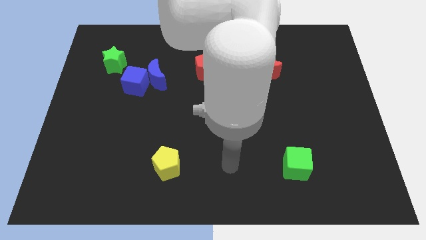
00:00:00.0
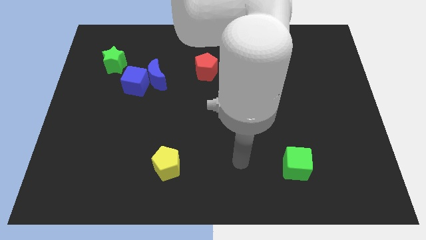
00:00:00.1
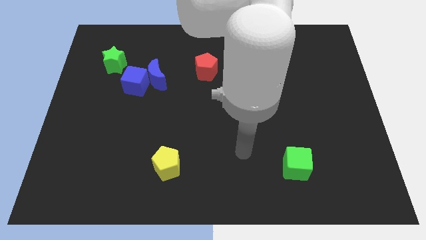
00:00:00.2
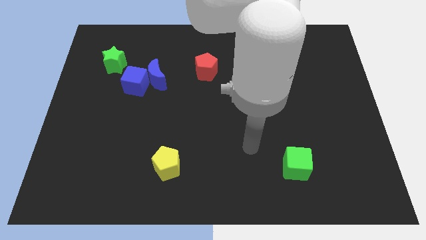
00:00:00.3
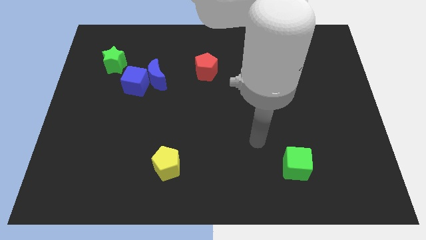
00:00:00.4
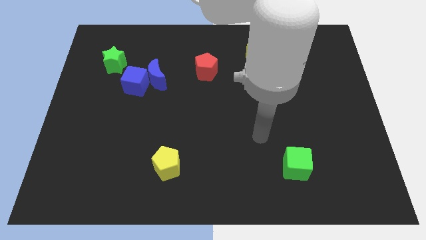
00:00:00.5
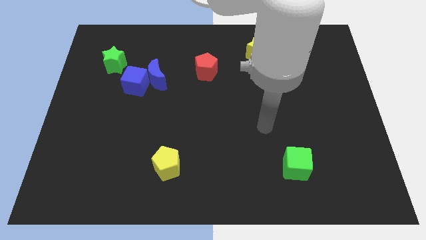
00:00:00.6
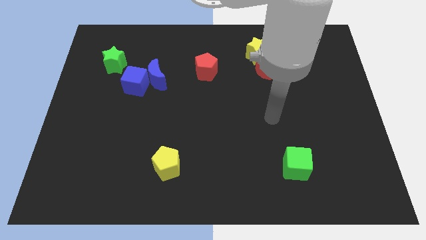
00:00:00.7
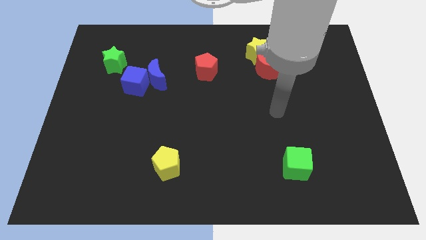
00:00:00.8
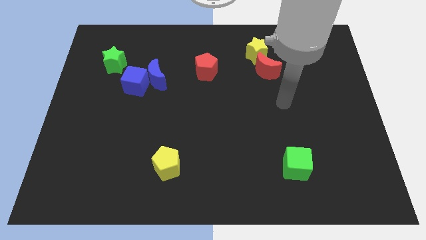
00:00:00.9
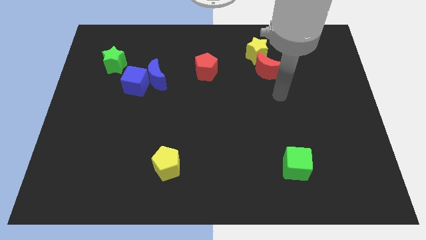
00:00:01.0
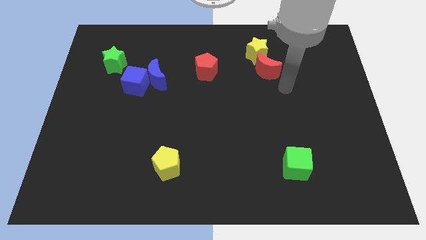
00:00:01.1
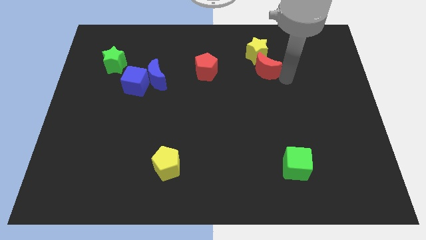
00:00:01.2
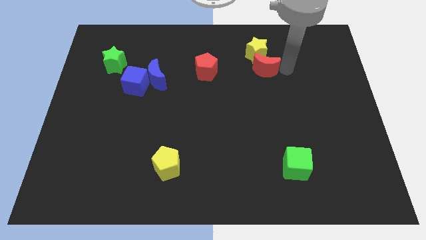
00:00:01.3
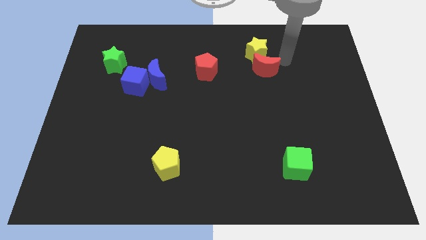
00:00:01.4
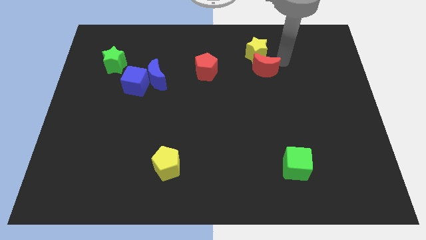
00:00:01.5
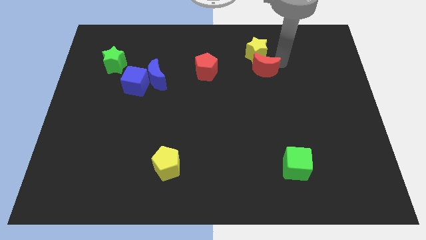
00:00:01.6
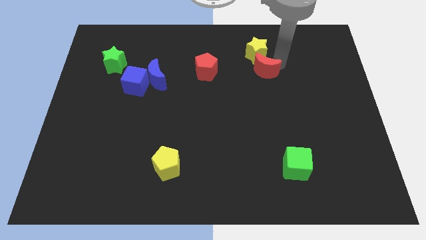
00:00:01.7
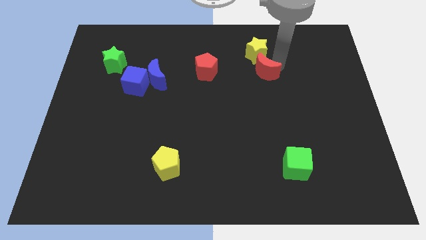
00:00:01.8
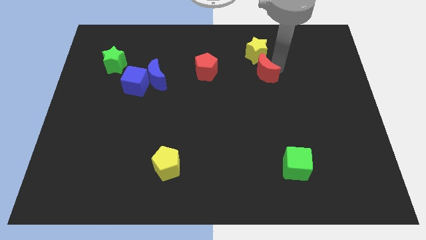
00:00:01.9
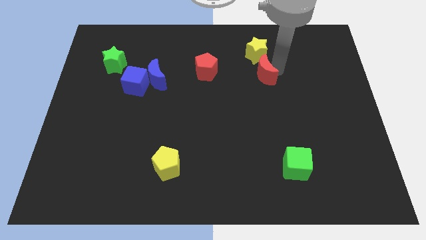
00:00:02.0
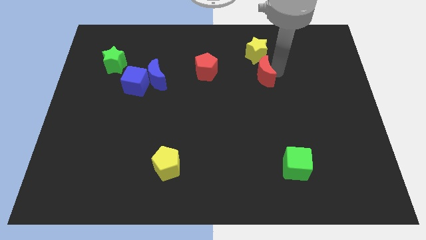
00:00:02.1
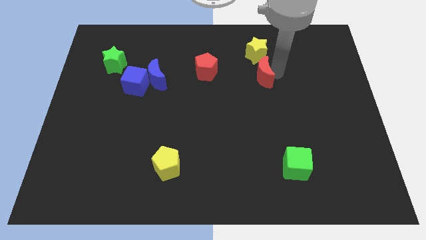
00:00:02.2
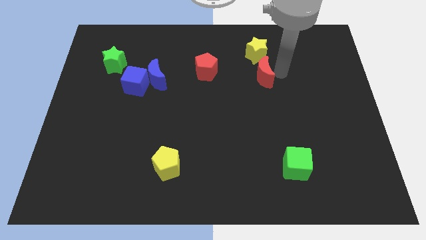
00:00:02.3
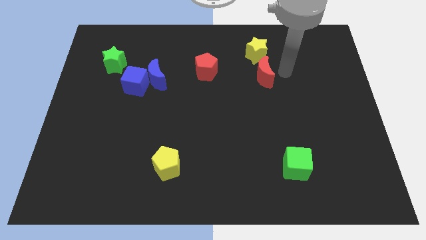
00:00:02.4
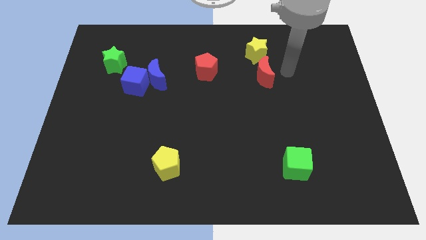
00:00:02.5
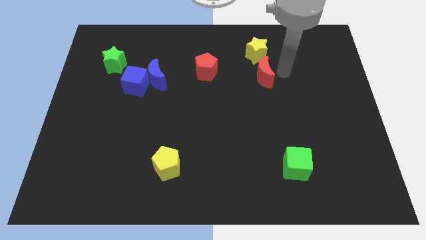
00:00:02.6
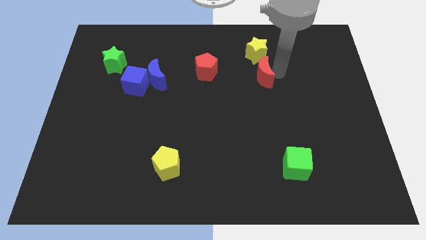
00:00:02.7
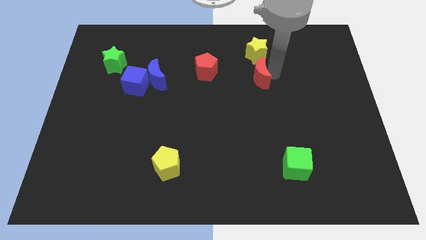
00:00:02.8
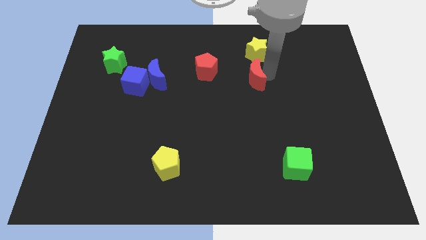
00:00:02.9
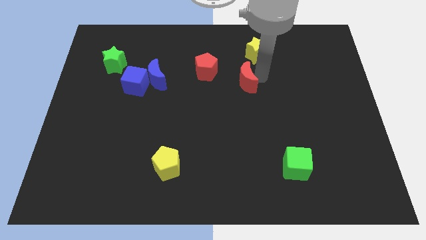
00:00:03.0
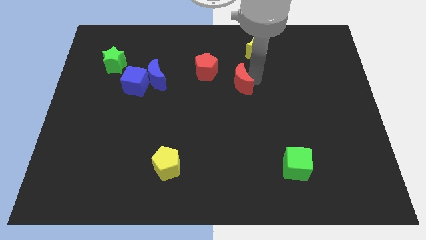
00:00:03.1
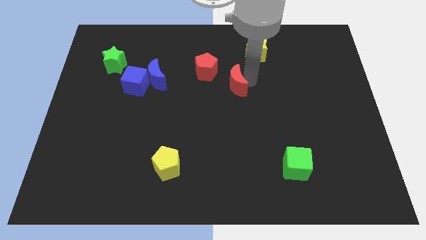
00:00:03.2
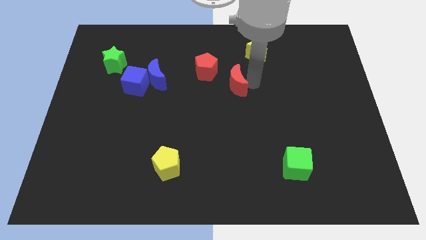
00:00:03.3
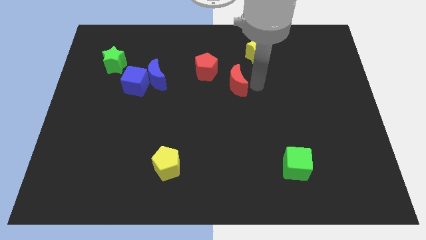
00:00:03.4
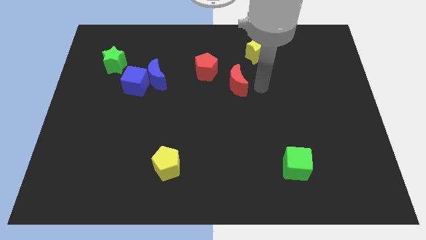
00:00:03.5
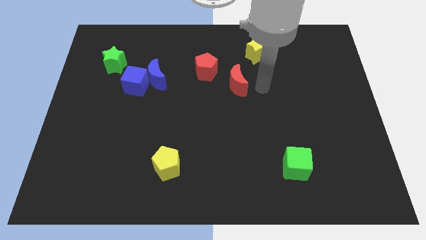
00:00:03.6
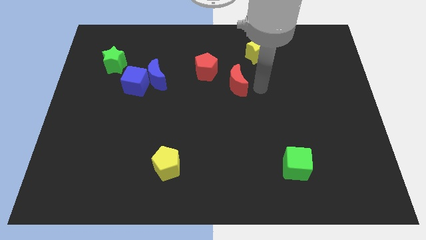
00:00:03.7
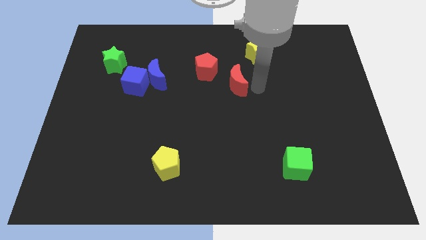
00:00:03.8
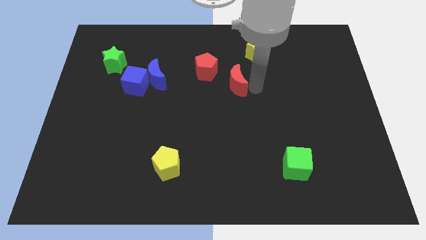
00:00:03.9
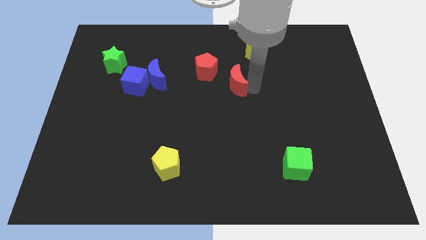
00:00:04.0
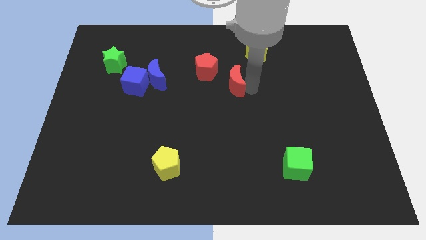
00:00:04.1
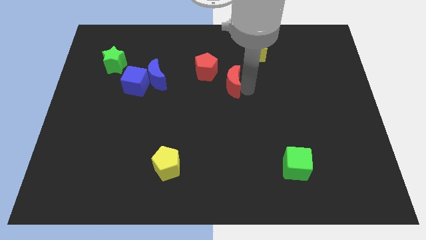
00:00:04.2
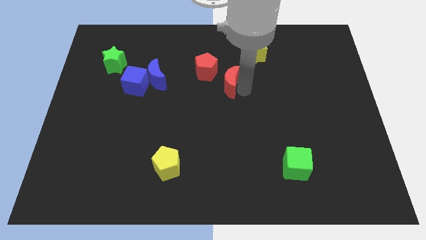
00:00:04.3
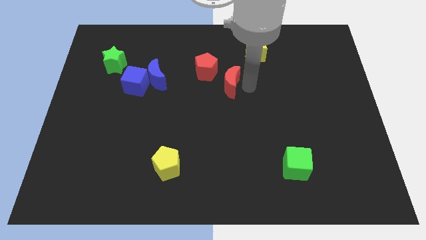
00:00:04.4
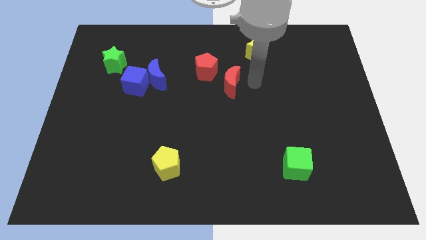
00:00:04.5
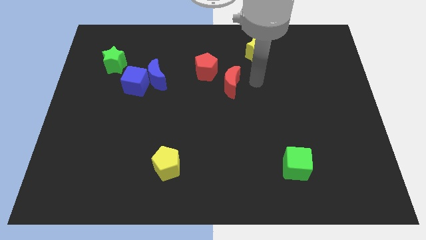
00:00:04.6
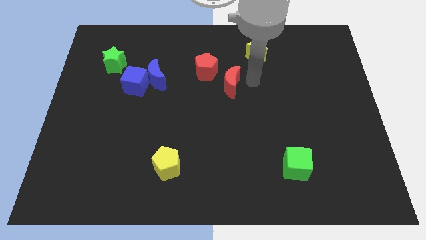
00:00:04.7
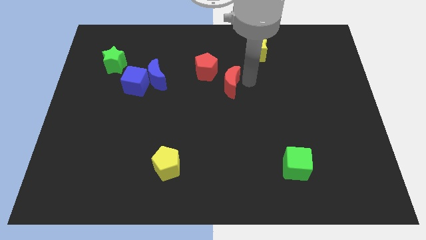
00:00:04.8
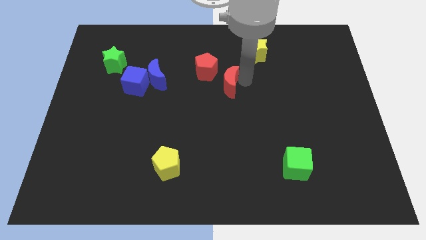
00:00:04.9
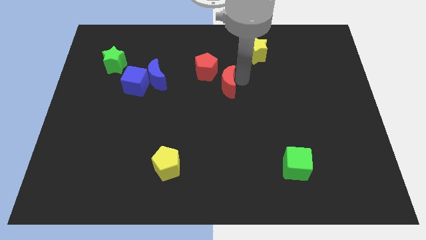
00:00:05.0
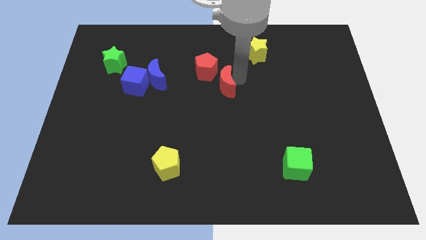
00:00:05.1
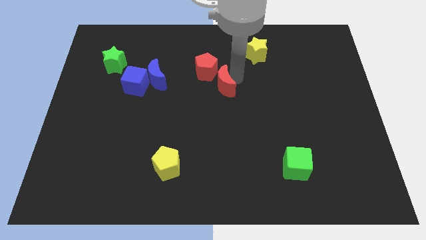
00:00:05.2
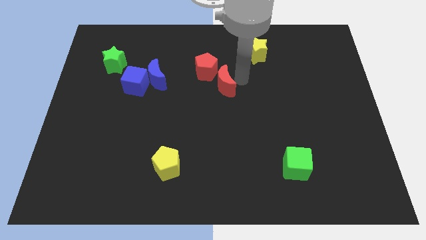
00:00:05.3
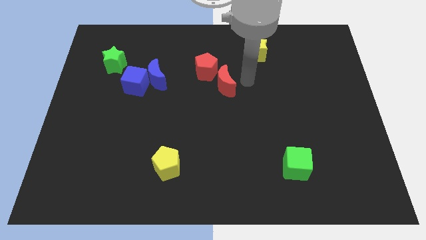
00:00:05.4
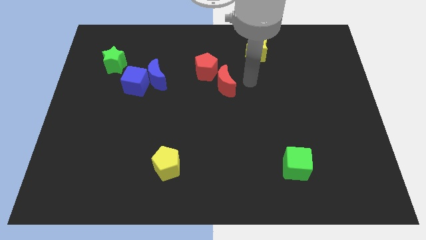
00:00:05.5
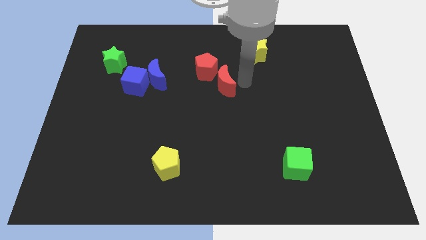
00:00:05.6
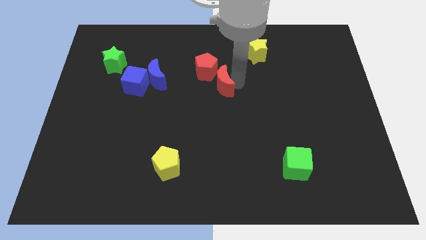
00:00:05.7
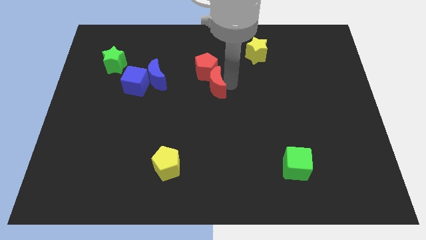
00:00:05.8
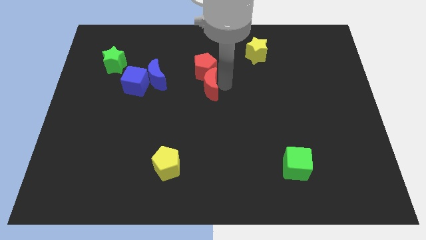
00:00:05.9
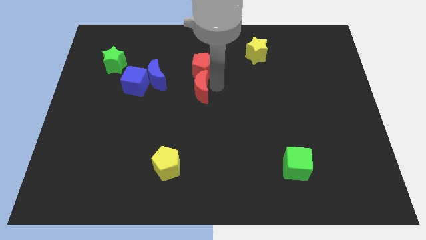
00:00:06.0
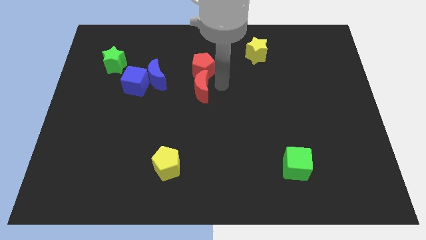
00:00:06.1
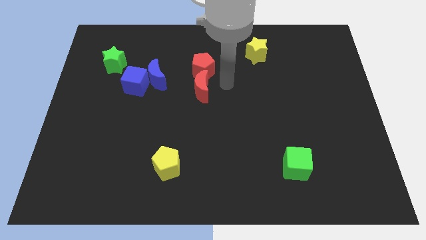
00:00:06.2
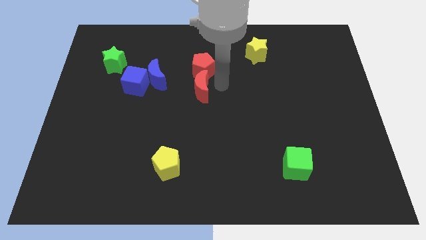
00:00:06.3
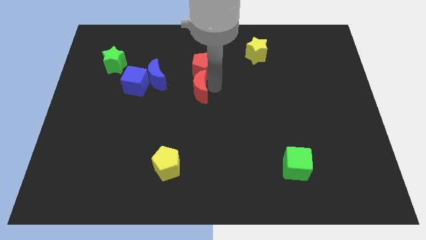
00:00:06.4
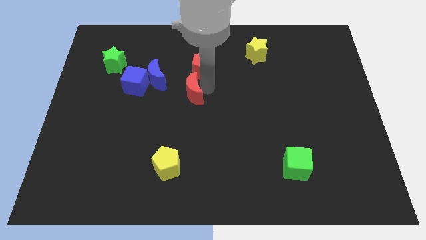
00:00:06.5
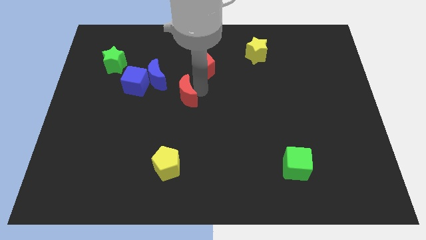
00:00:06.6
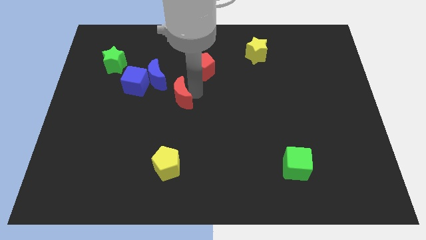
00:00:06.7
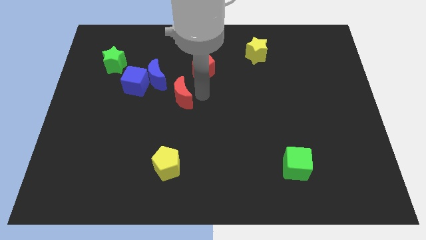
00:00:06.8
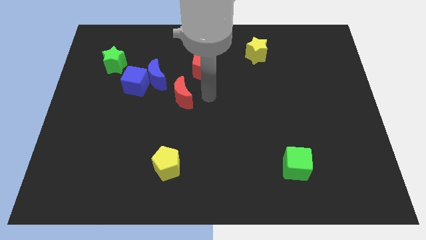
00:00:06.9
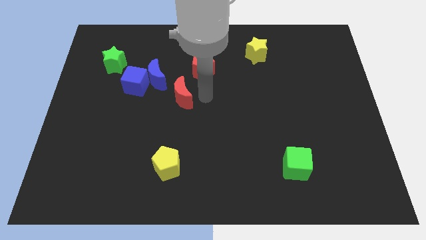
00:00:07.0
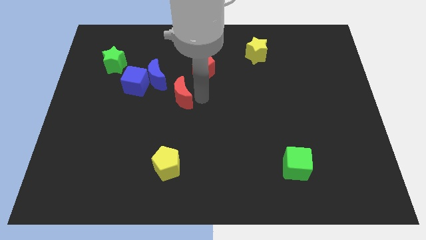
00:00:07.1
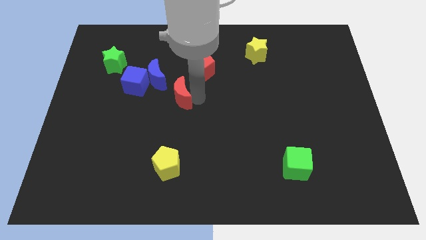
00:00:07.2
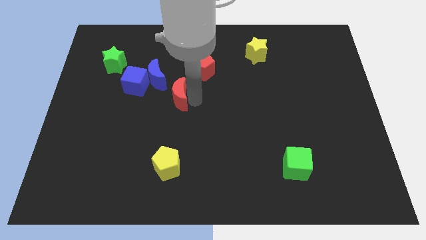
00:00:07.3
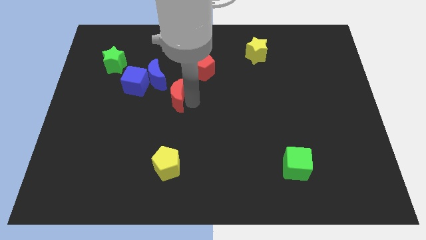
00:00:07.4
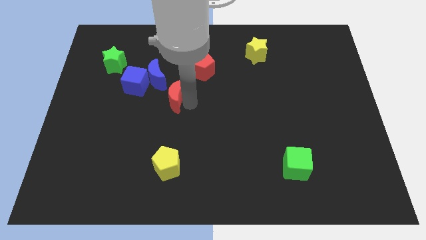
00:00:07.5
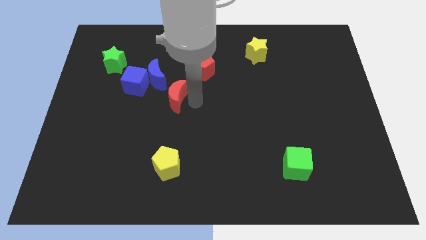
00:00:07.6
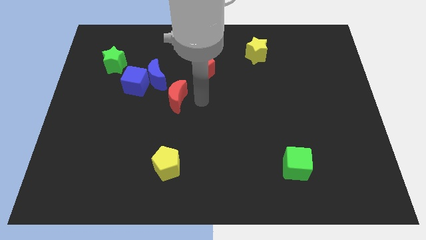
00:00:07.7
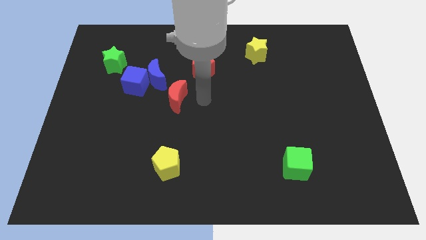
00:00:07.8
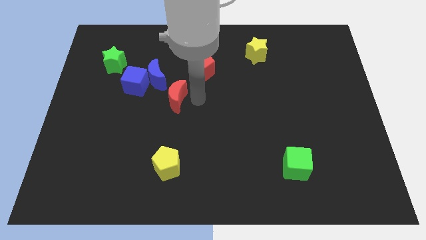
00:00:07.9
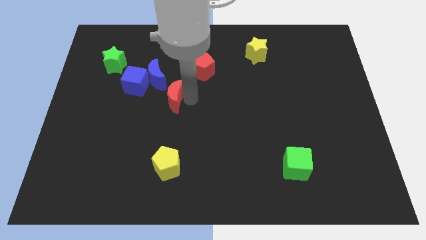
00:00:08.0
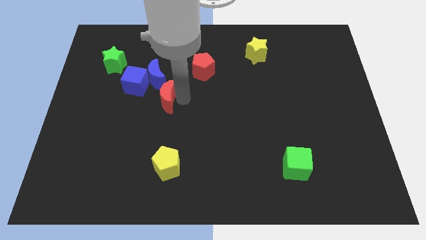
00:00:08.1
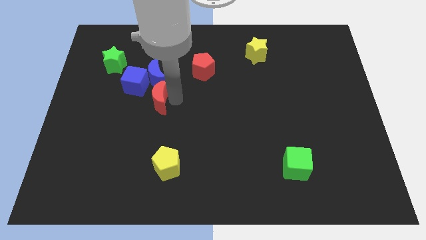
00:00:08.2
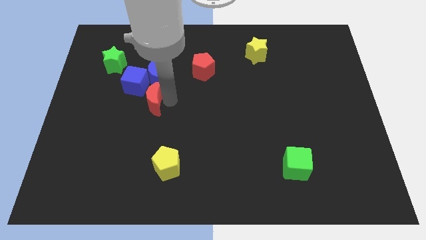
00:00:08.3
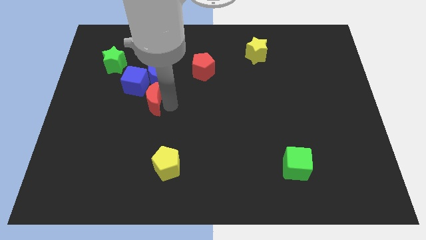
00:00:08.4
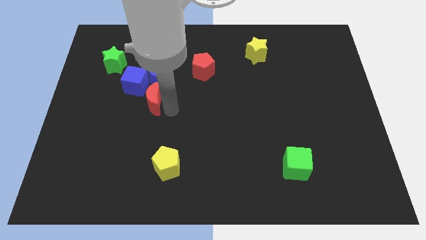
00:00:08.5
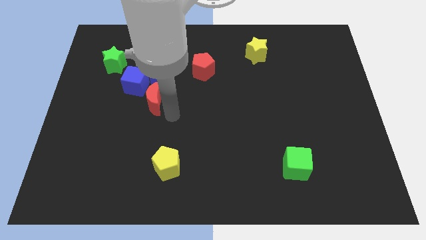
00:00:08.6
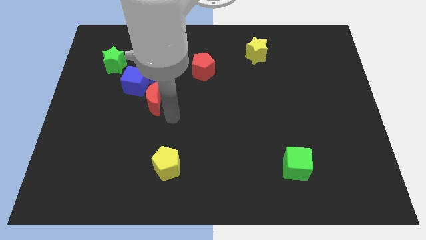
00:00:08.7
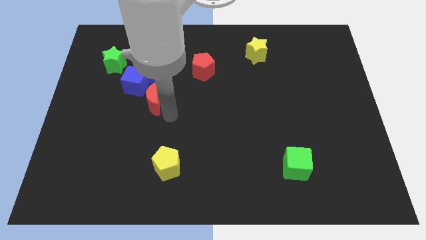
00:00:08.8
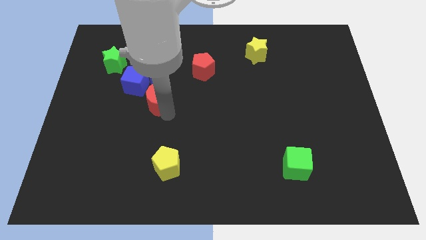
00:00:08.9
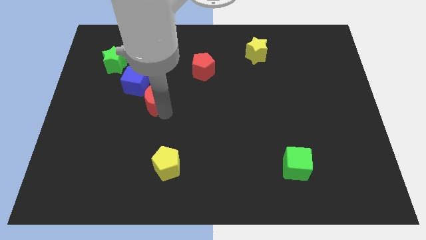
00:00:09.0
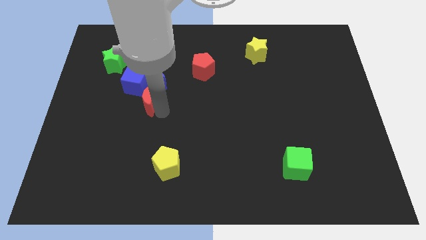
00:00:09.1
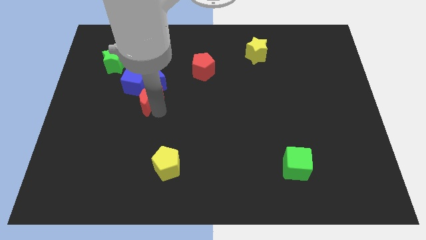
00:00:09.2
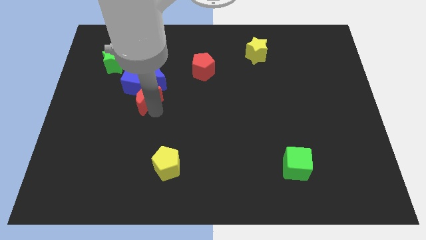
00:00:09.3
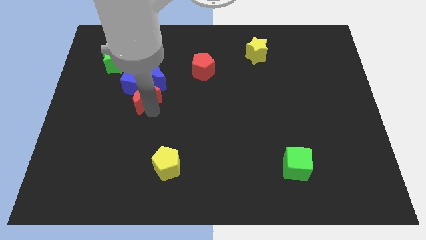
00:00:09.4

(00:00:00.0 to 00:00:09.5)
put the red moon to the blue cube
